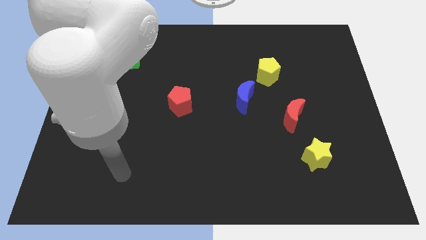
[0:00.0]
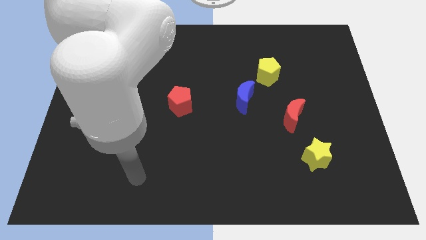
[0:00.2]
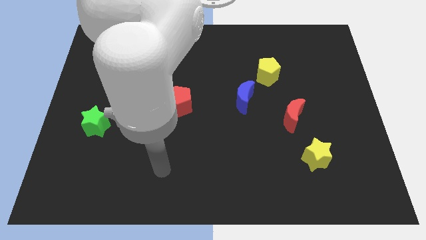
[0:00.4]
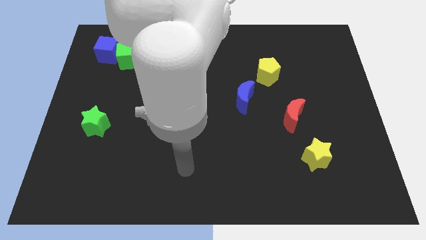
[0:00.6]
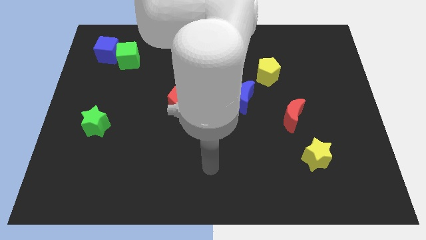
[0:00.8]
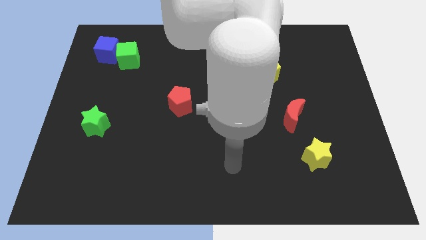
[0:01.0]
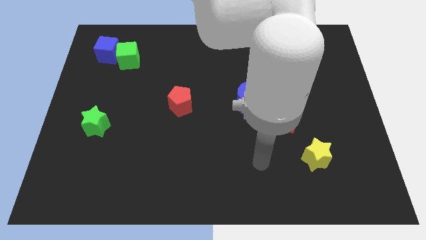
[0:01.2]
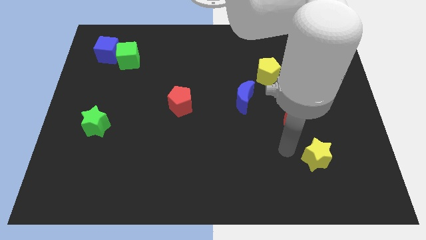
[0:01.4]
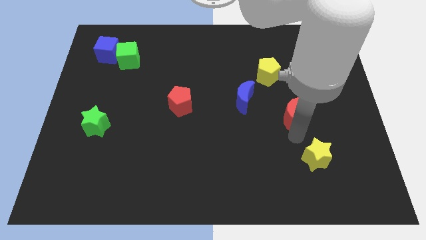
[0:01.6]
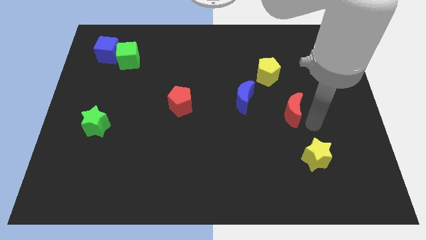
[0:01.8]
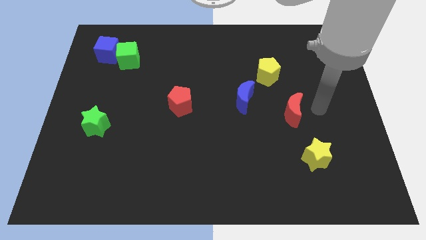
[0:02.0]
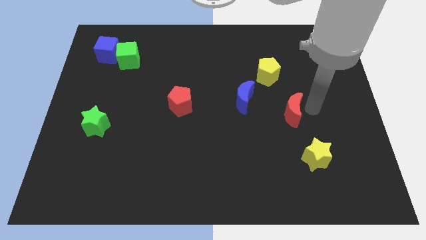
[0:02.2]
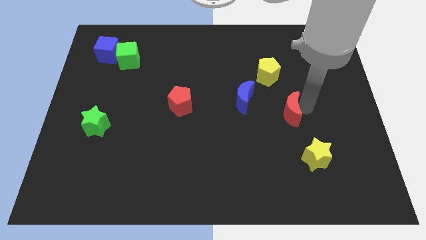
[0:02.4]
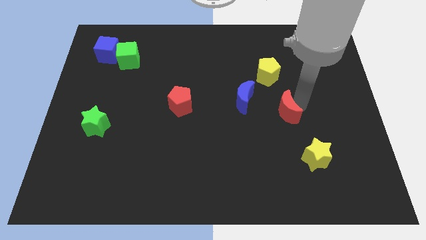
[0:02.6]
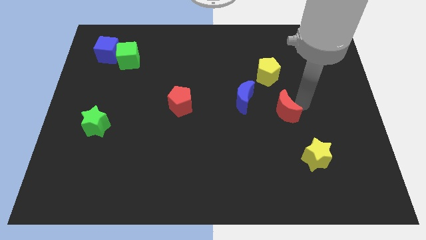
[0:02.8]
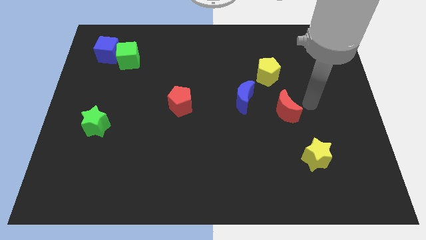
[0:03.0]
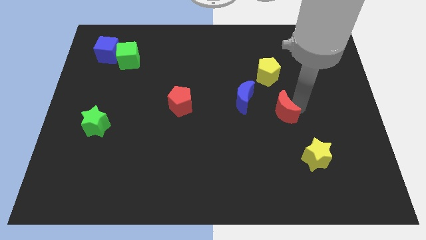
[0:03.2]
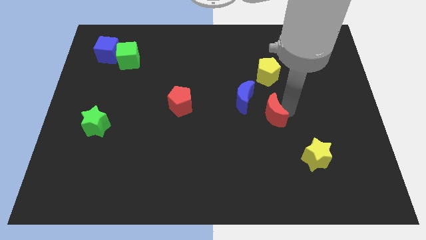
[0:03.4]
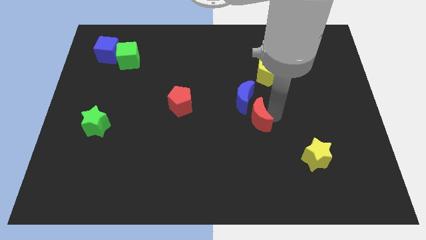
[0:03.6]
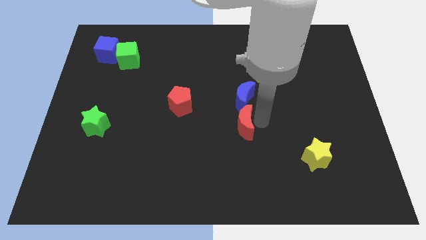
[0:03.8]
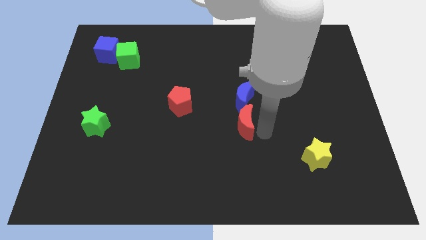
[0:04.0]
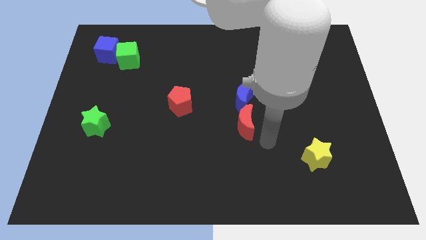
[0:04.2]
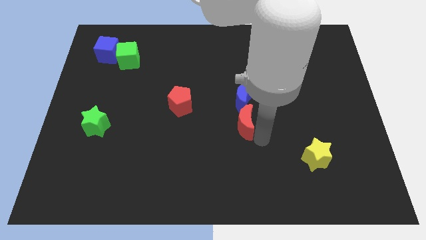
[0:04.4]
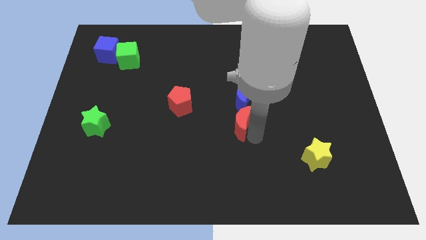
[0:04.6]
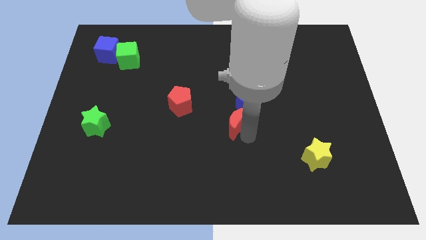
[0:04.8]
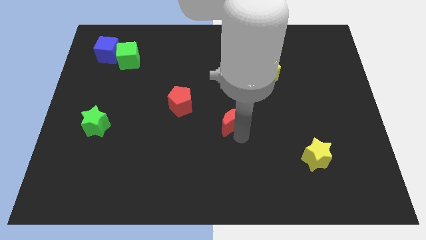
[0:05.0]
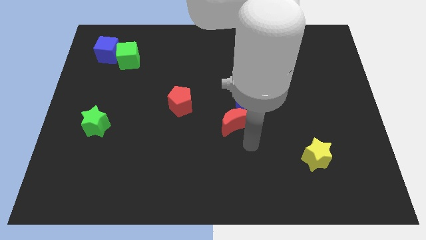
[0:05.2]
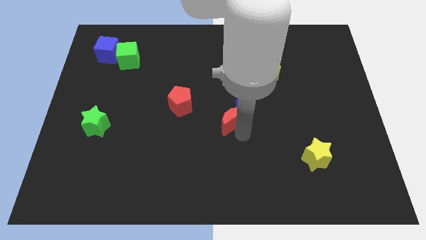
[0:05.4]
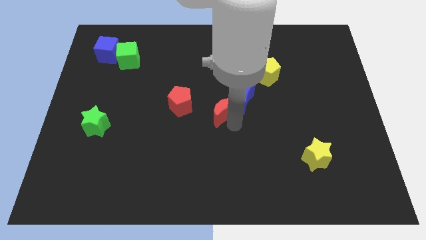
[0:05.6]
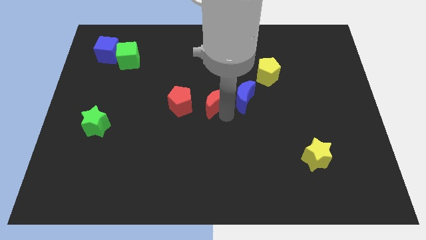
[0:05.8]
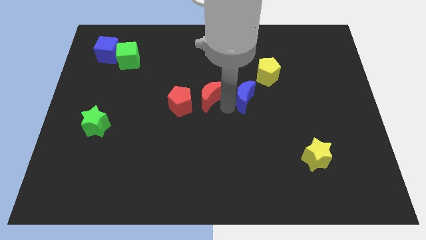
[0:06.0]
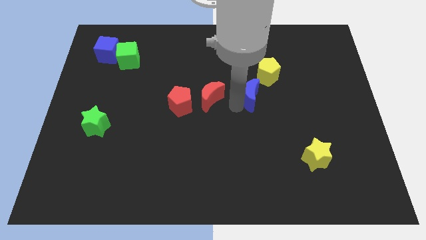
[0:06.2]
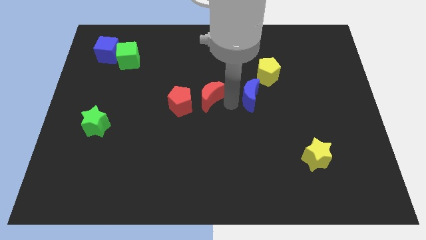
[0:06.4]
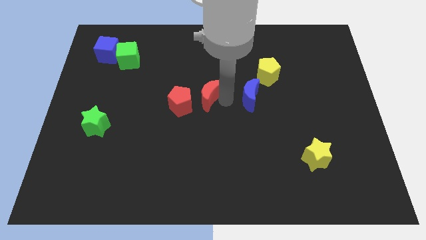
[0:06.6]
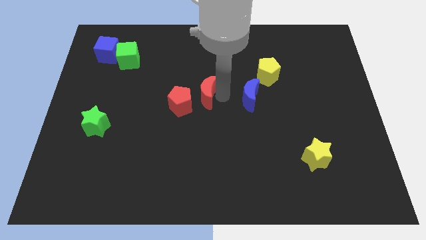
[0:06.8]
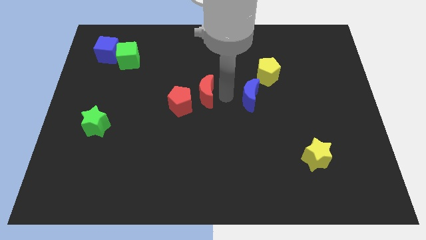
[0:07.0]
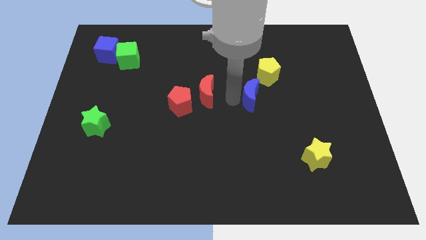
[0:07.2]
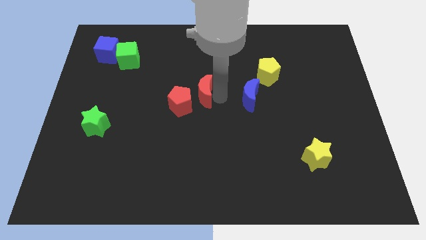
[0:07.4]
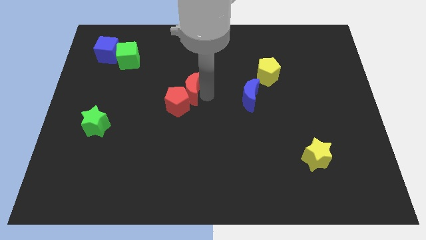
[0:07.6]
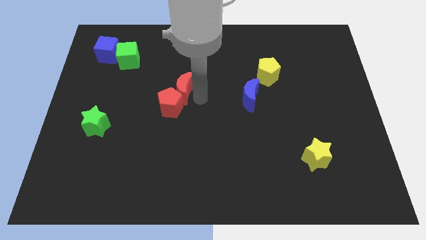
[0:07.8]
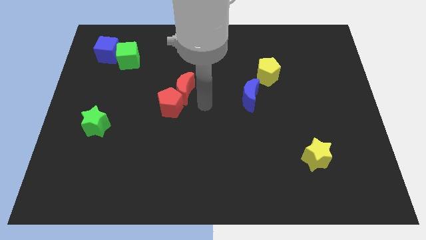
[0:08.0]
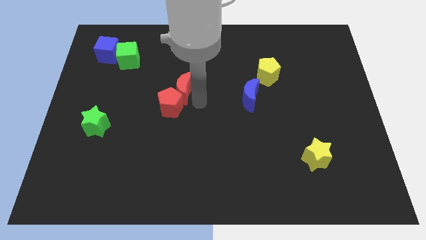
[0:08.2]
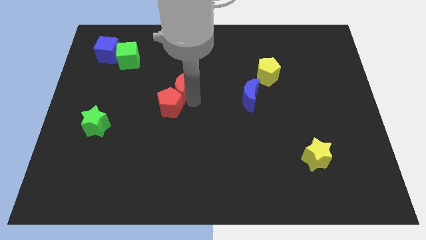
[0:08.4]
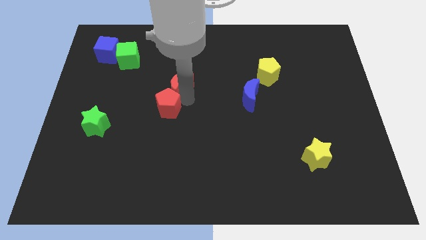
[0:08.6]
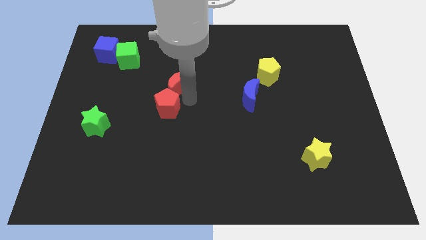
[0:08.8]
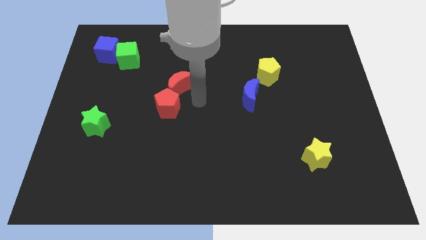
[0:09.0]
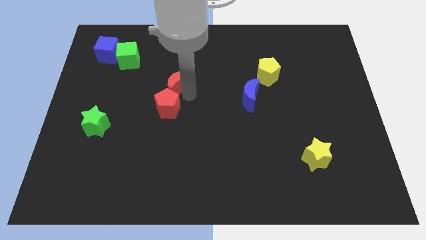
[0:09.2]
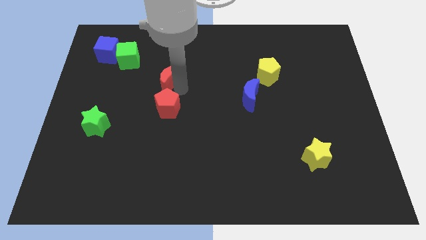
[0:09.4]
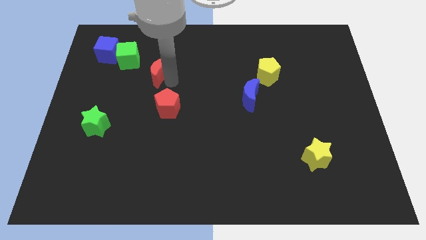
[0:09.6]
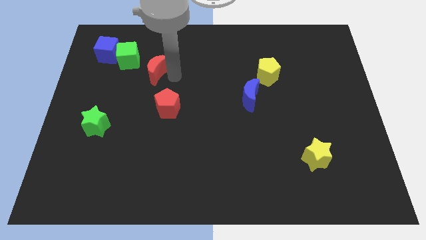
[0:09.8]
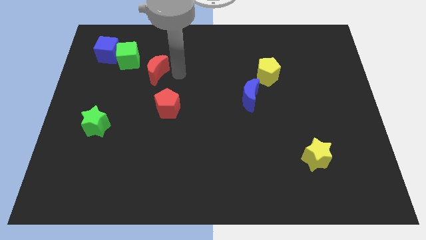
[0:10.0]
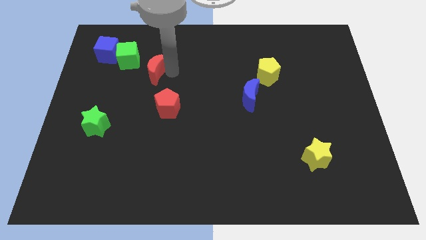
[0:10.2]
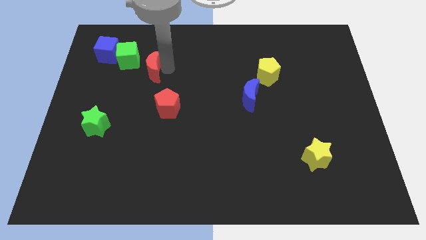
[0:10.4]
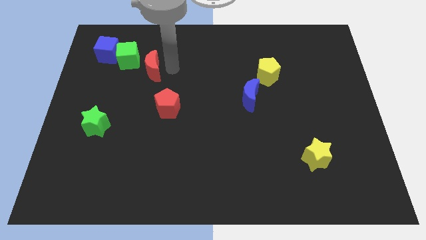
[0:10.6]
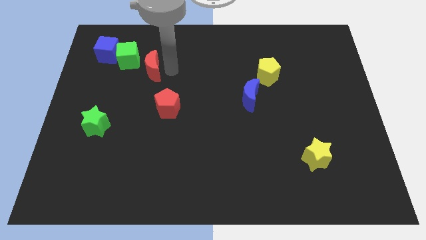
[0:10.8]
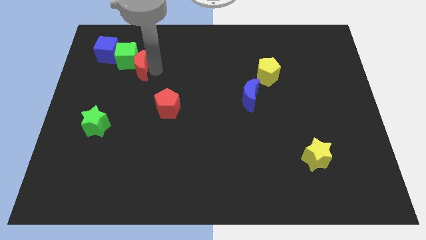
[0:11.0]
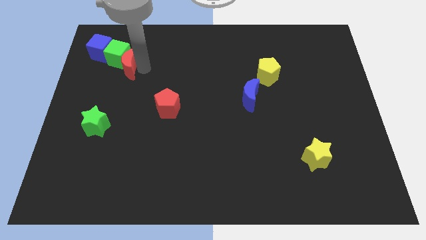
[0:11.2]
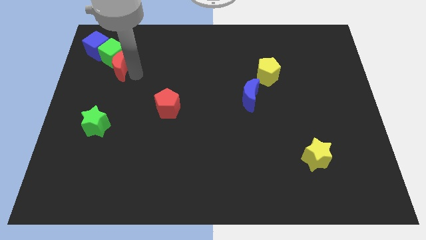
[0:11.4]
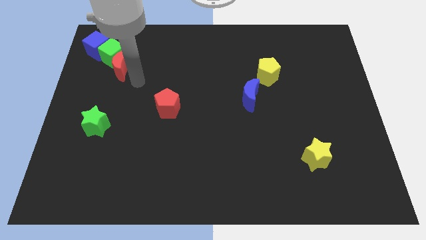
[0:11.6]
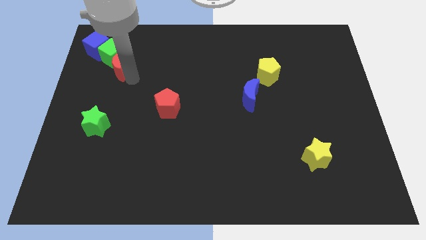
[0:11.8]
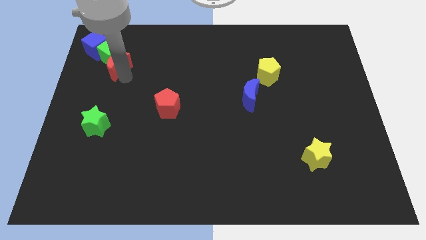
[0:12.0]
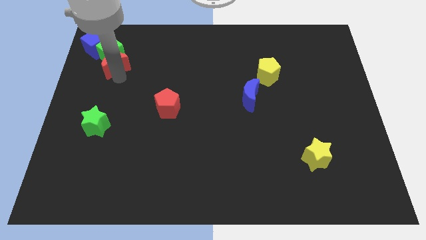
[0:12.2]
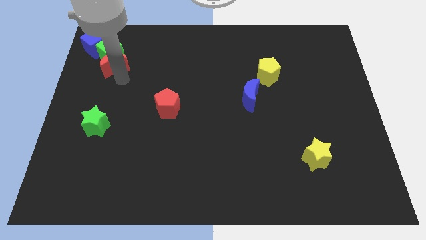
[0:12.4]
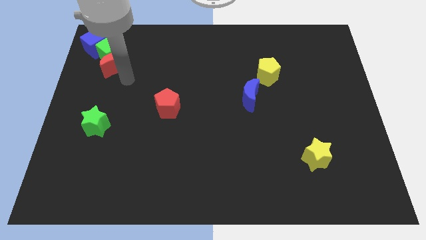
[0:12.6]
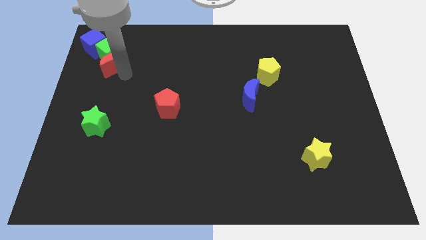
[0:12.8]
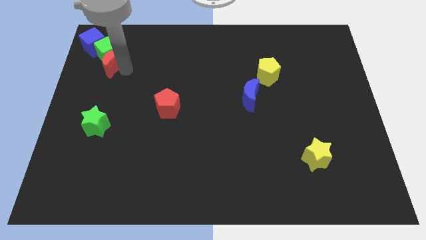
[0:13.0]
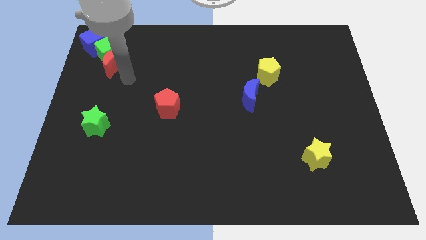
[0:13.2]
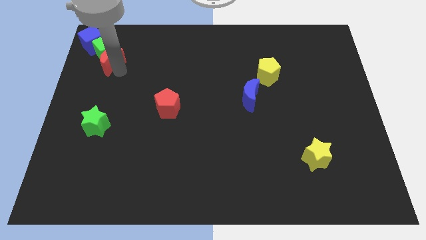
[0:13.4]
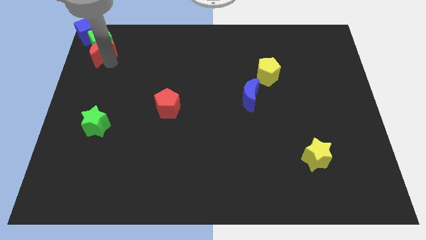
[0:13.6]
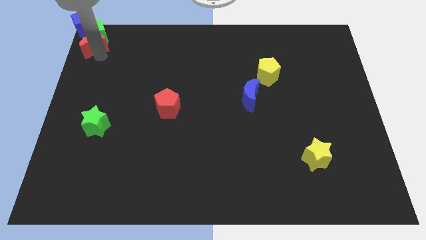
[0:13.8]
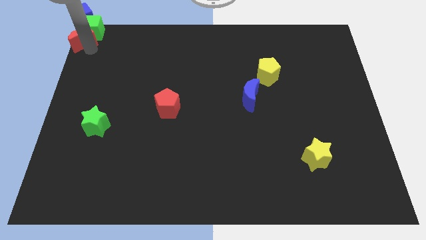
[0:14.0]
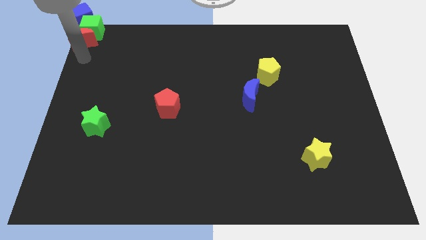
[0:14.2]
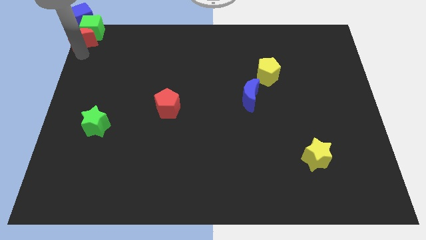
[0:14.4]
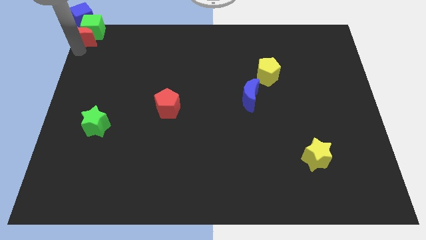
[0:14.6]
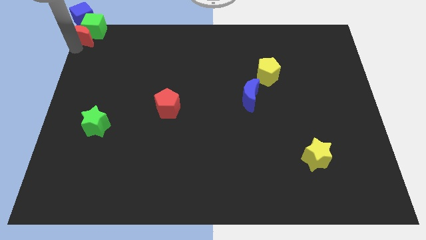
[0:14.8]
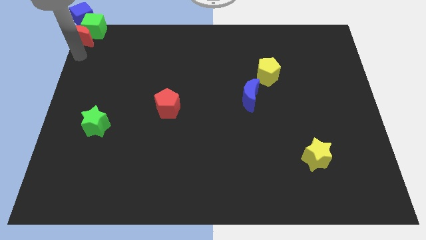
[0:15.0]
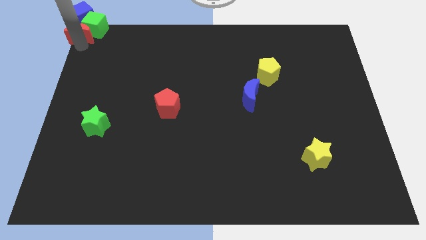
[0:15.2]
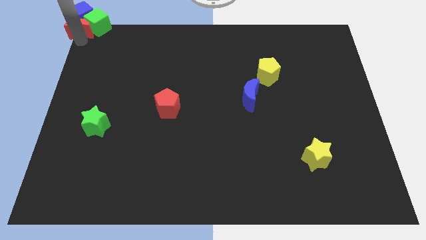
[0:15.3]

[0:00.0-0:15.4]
put the red moon to the blue cube
